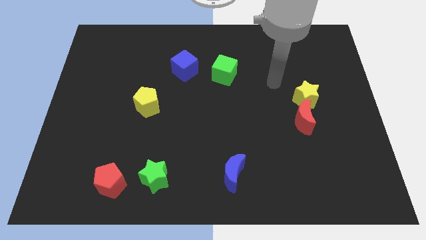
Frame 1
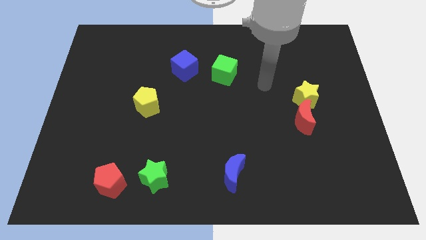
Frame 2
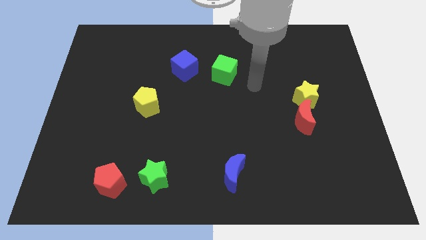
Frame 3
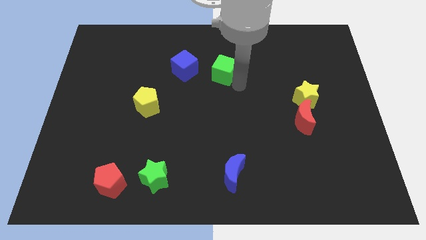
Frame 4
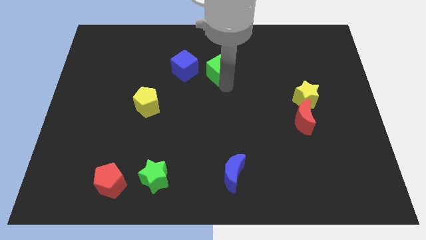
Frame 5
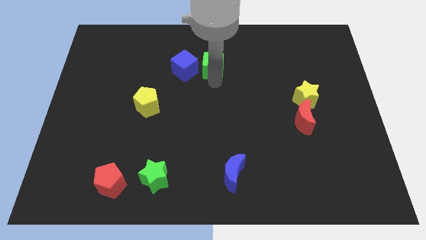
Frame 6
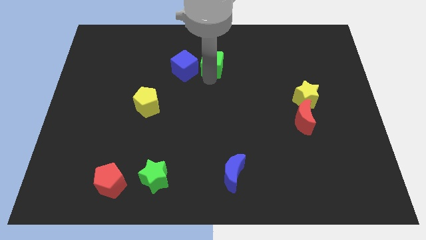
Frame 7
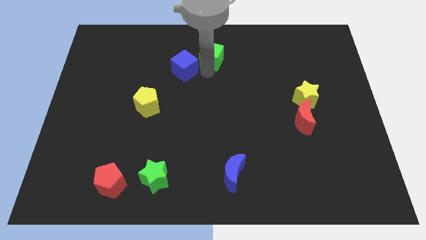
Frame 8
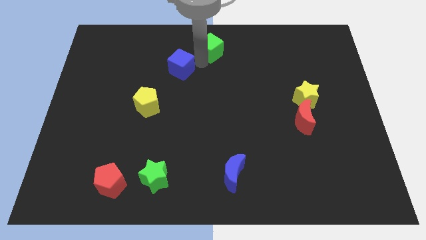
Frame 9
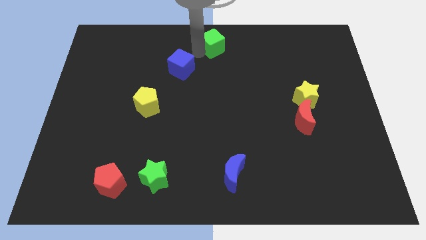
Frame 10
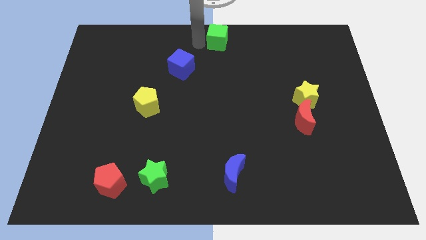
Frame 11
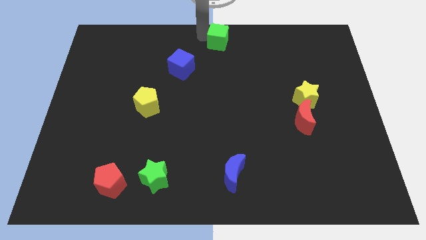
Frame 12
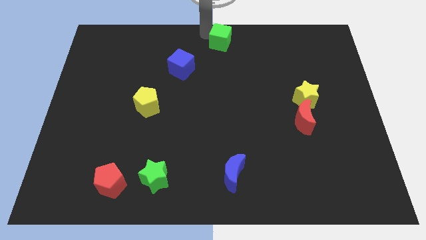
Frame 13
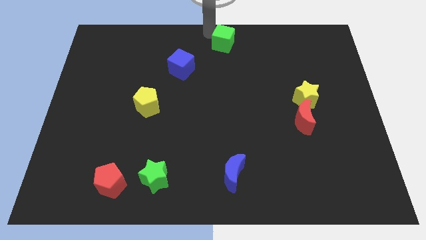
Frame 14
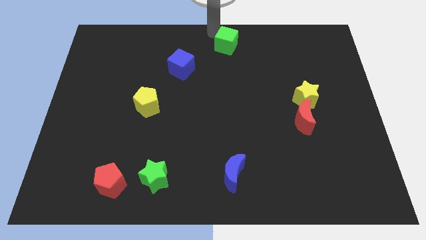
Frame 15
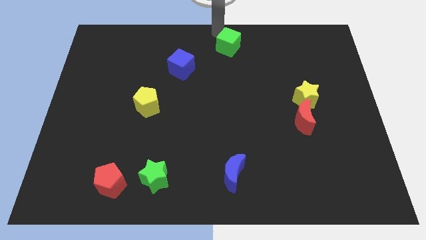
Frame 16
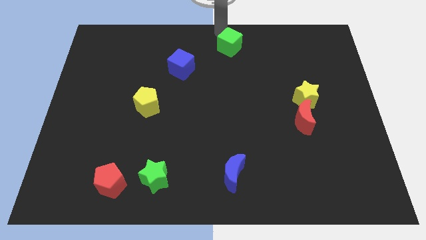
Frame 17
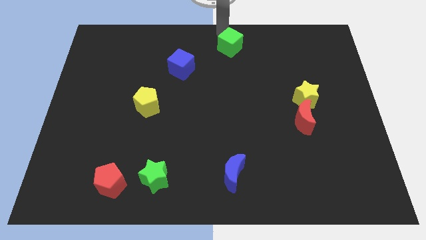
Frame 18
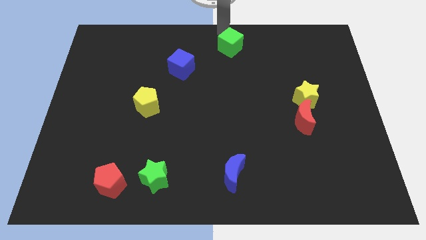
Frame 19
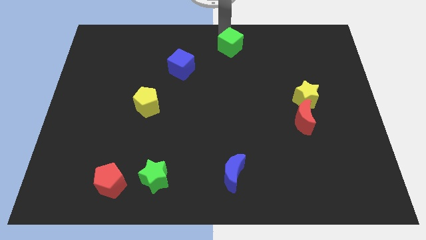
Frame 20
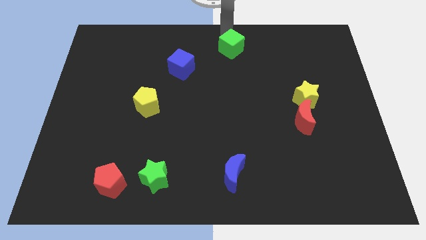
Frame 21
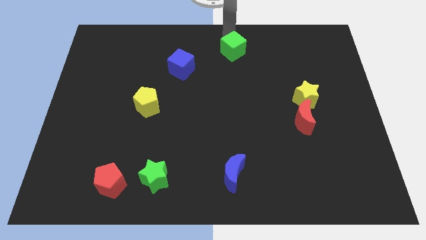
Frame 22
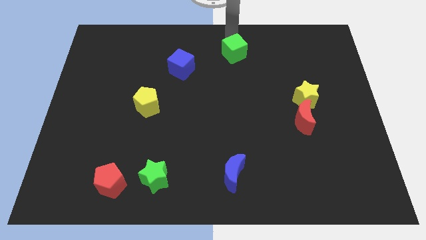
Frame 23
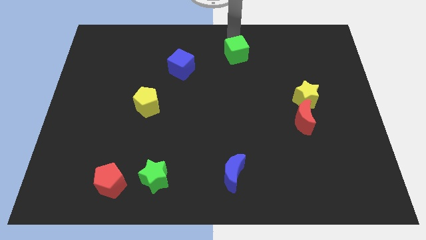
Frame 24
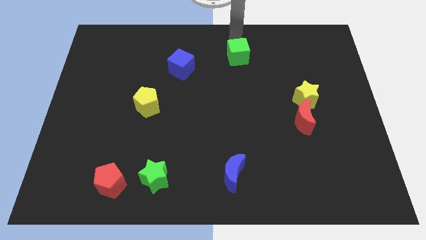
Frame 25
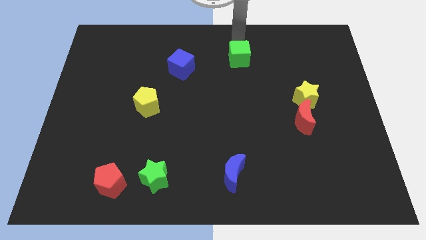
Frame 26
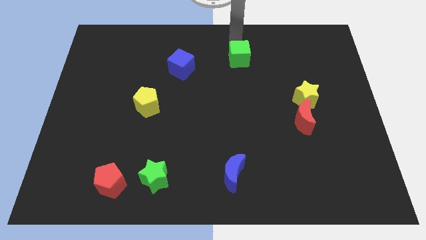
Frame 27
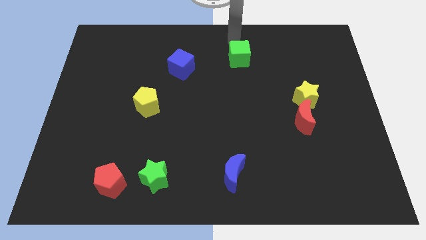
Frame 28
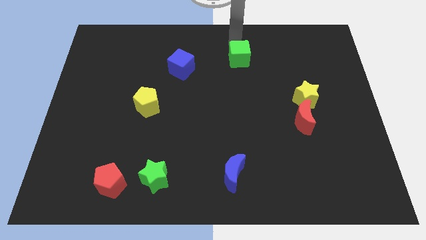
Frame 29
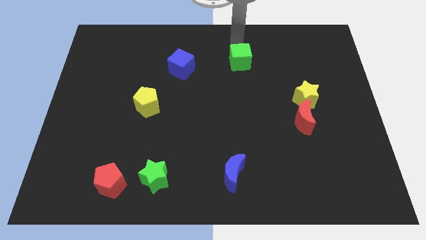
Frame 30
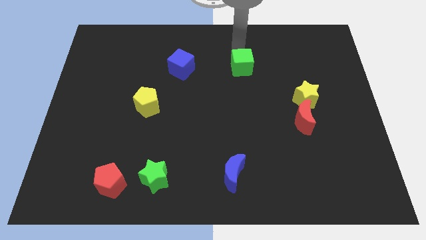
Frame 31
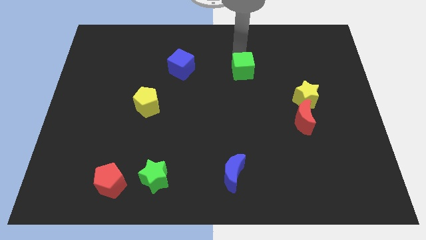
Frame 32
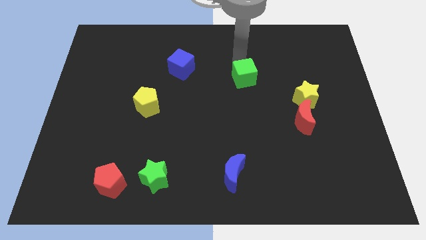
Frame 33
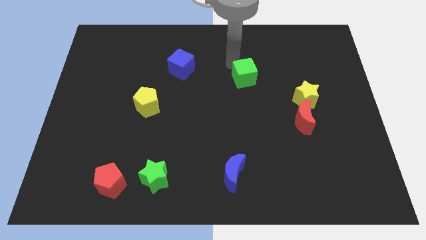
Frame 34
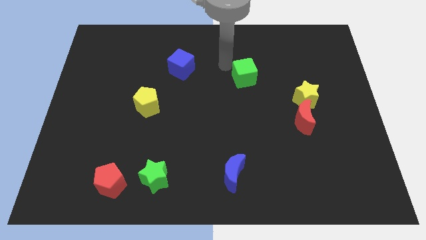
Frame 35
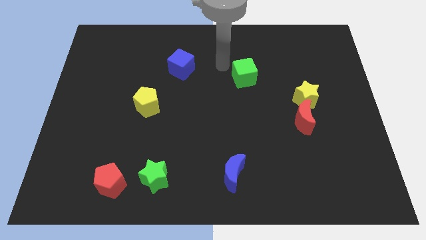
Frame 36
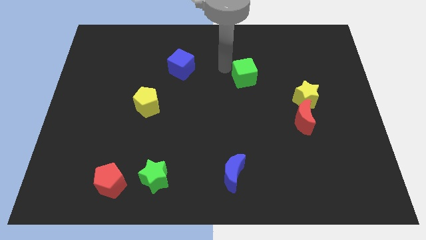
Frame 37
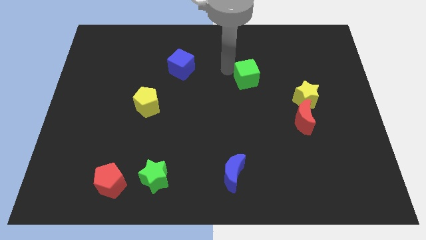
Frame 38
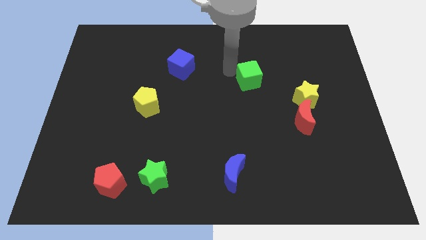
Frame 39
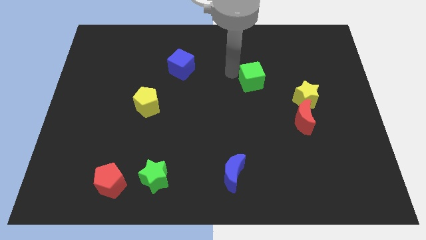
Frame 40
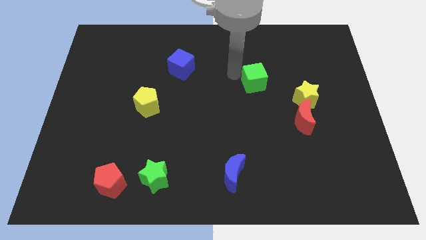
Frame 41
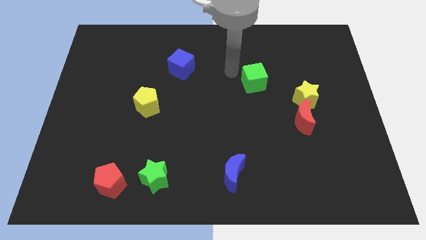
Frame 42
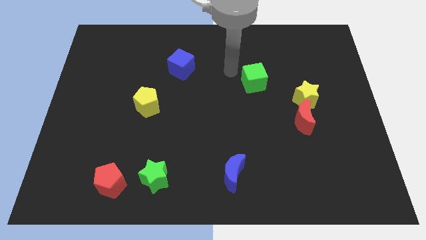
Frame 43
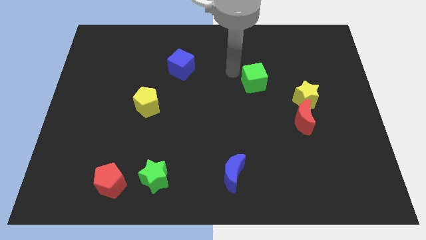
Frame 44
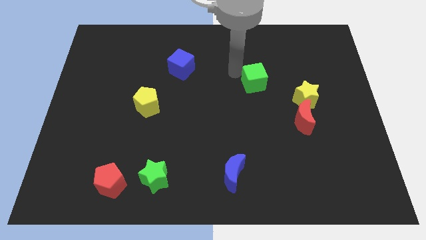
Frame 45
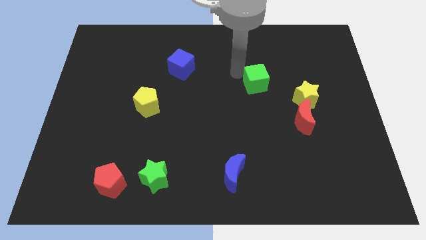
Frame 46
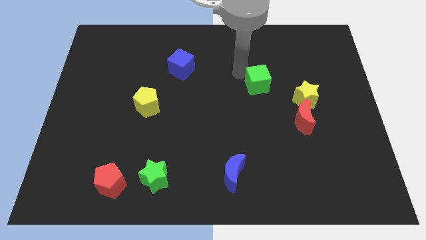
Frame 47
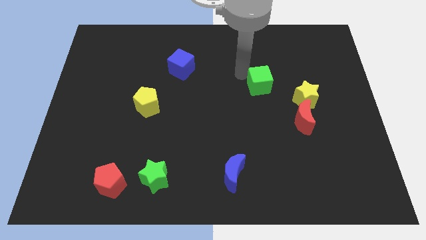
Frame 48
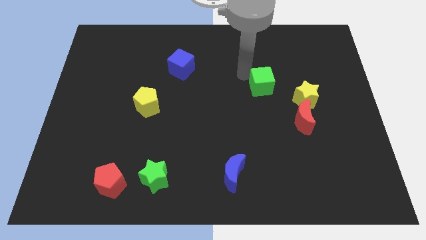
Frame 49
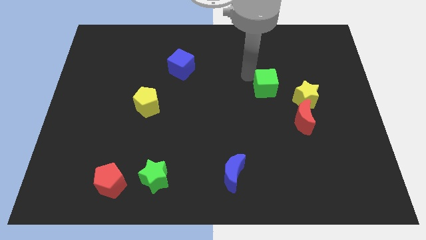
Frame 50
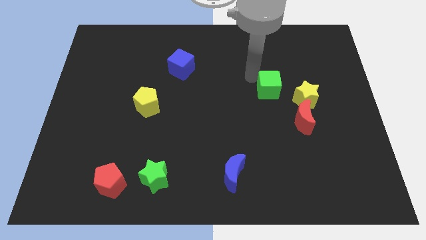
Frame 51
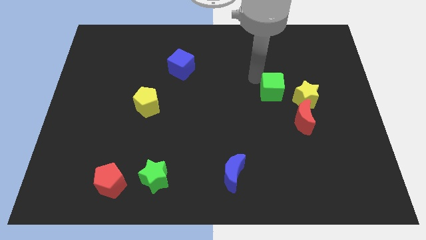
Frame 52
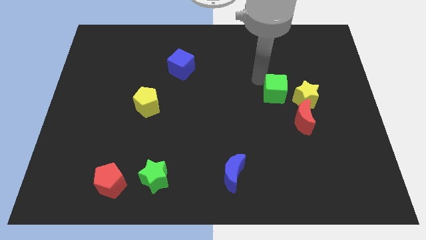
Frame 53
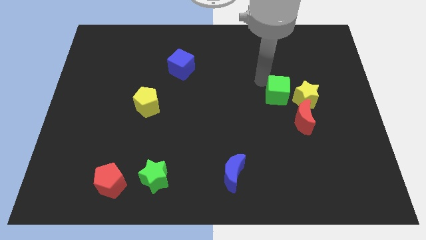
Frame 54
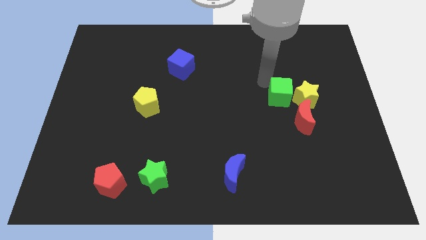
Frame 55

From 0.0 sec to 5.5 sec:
slide the green cube close to the yellow star

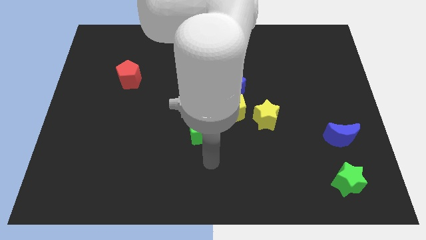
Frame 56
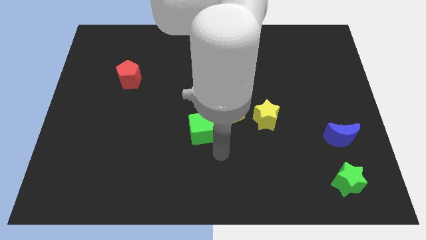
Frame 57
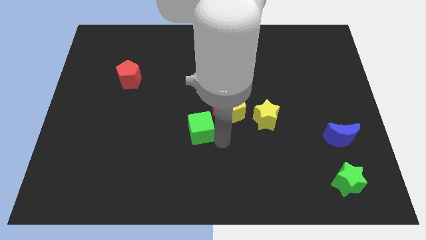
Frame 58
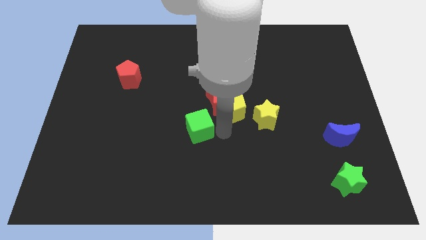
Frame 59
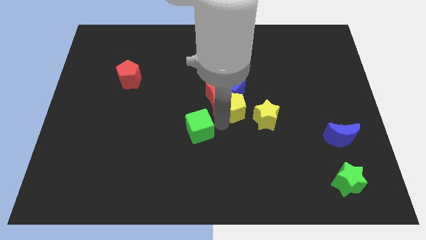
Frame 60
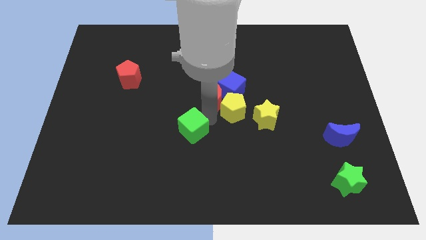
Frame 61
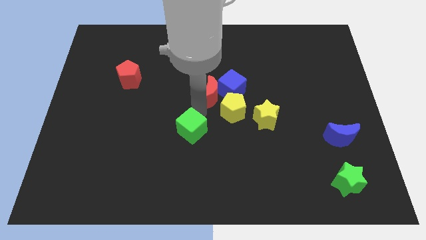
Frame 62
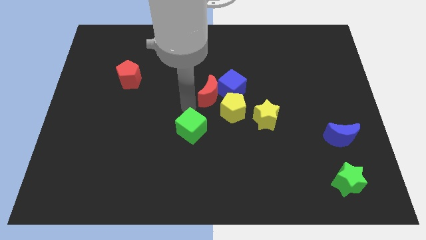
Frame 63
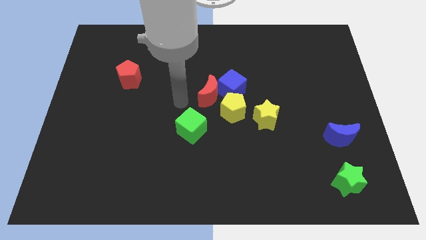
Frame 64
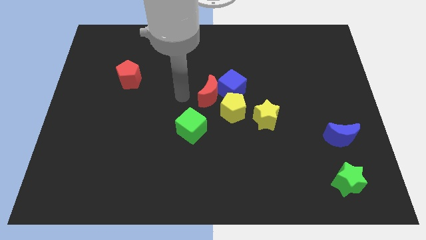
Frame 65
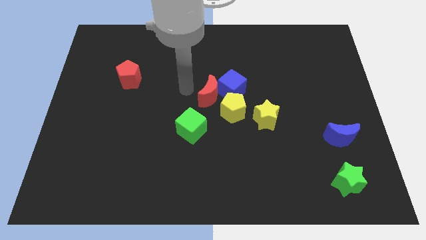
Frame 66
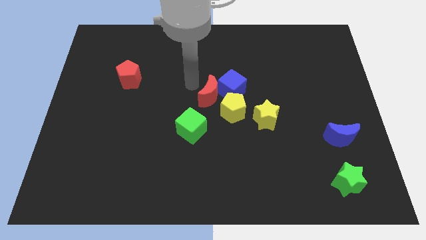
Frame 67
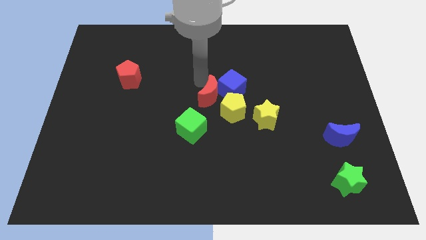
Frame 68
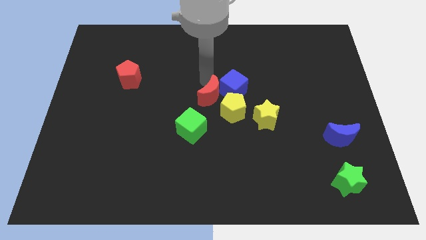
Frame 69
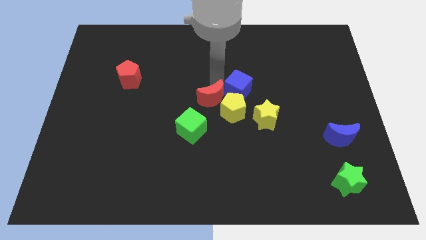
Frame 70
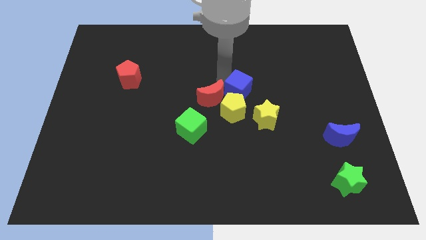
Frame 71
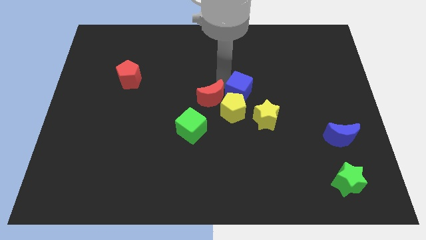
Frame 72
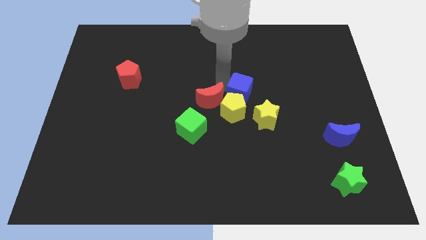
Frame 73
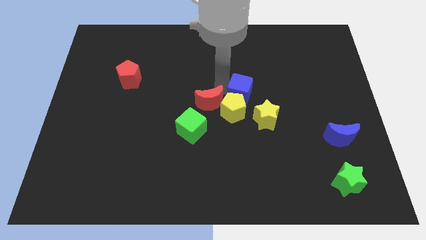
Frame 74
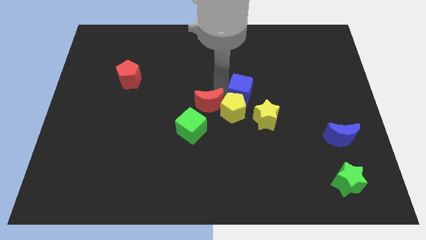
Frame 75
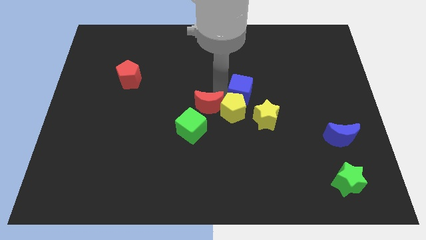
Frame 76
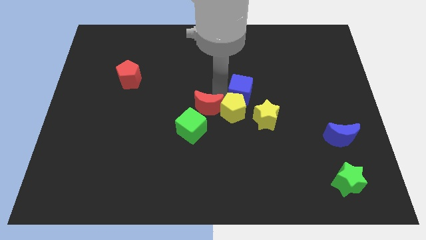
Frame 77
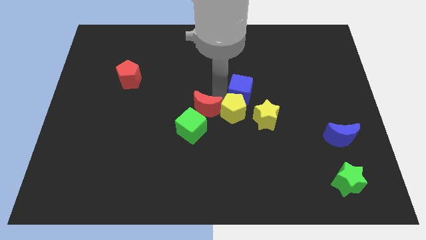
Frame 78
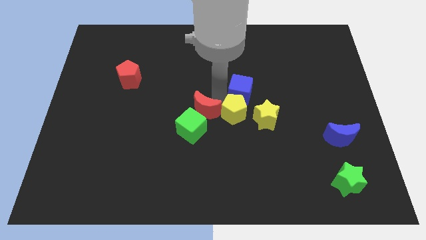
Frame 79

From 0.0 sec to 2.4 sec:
put the red moon next to the green cube
